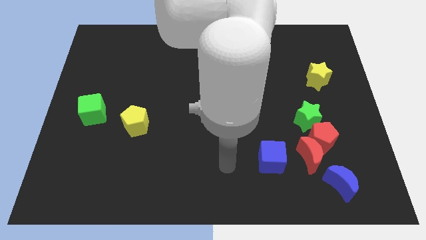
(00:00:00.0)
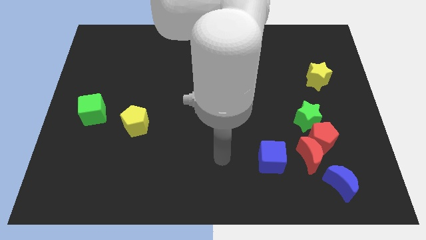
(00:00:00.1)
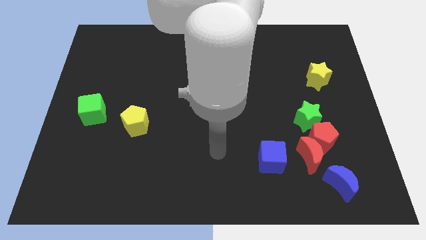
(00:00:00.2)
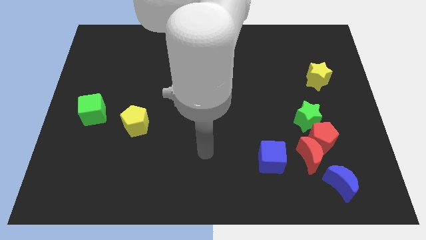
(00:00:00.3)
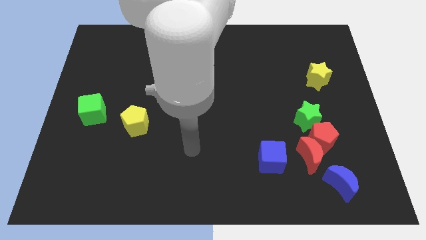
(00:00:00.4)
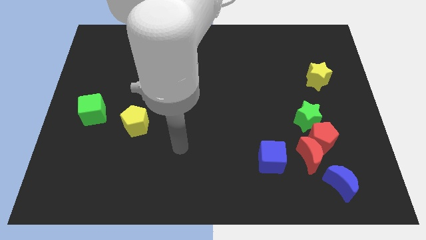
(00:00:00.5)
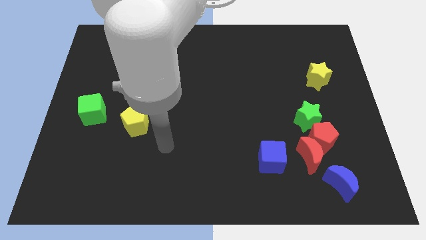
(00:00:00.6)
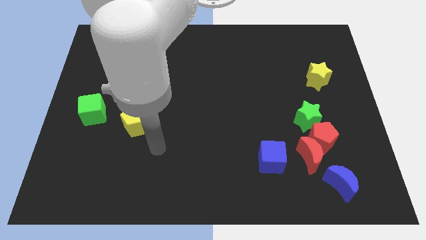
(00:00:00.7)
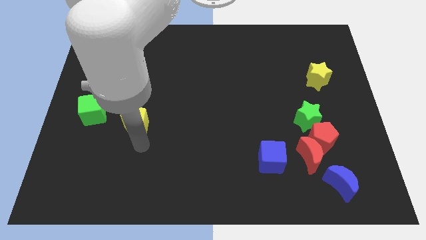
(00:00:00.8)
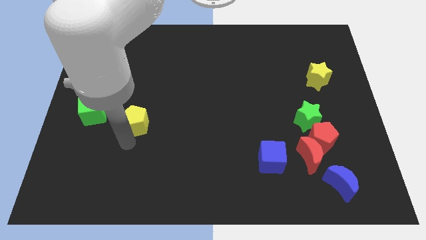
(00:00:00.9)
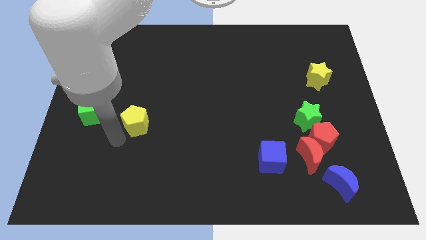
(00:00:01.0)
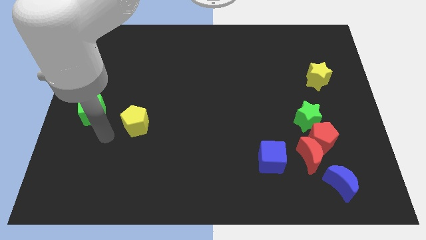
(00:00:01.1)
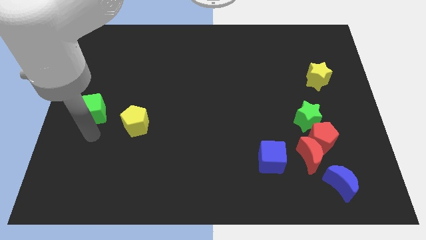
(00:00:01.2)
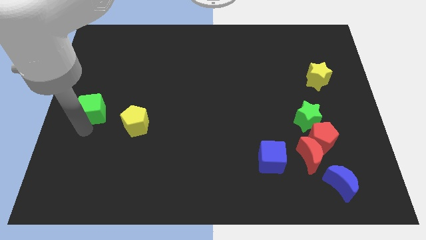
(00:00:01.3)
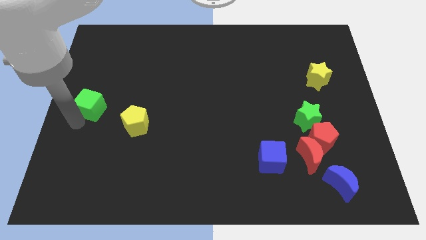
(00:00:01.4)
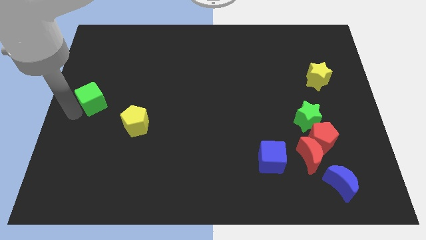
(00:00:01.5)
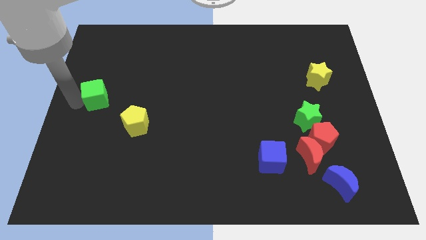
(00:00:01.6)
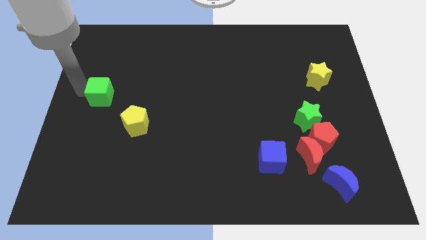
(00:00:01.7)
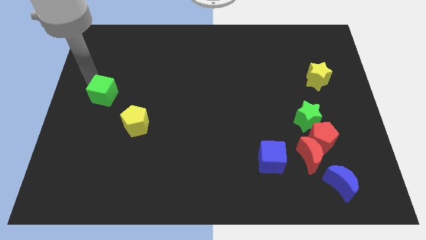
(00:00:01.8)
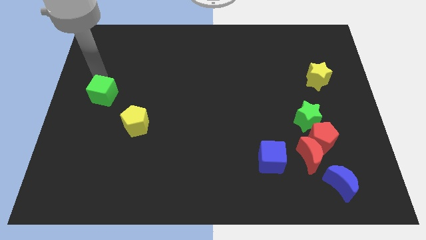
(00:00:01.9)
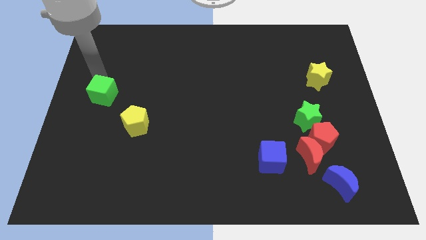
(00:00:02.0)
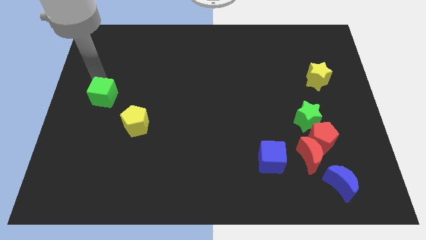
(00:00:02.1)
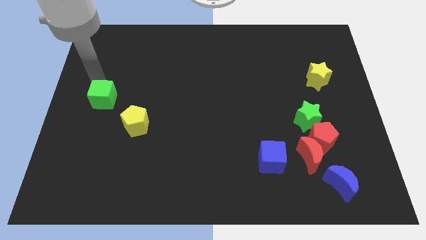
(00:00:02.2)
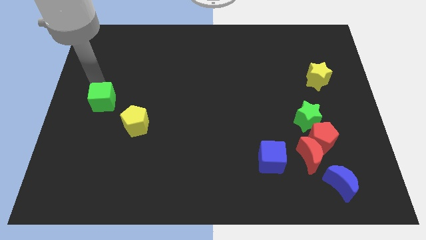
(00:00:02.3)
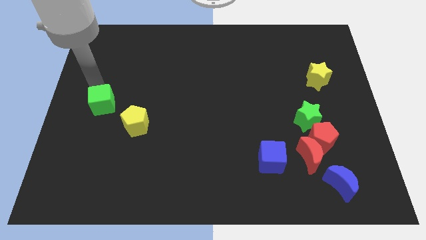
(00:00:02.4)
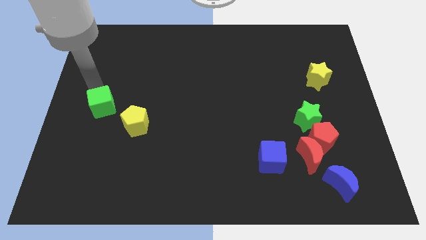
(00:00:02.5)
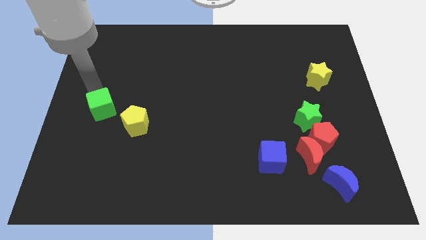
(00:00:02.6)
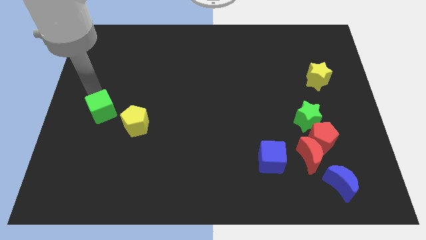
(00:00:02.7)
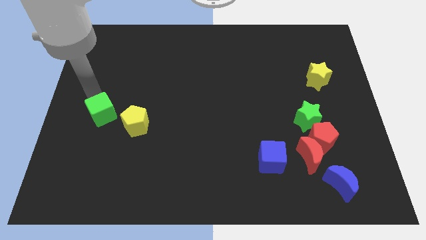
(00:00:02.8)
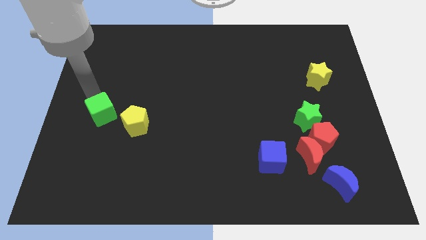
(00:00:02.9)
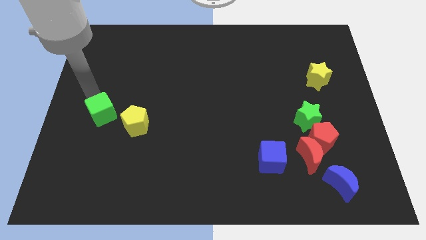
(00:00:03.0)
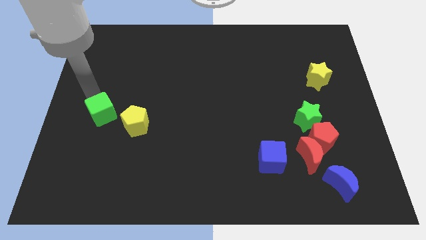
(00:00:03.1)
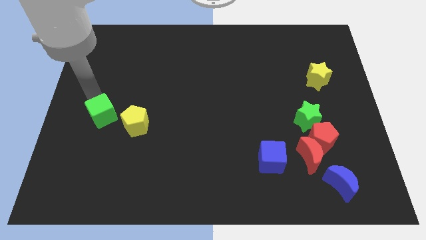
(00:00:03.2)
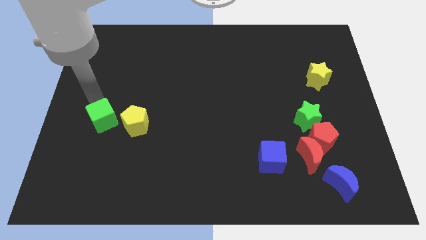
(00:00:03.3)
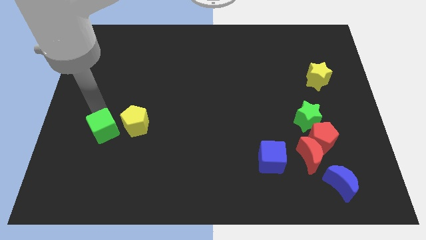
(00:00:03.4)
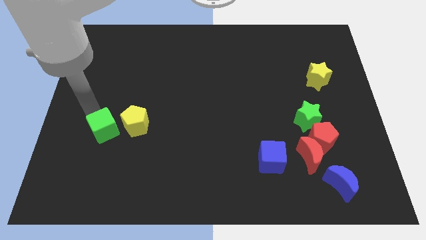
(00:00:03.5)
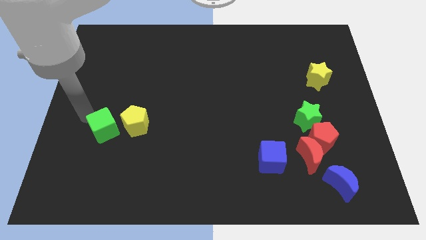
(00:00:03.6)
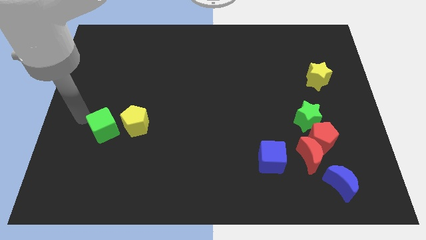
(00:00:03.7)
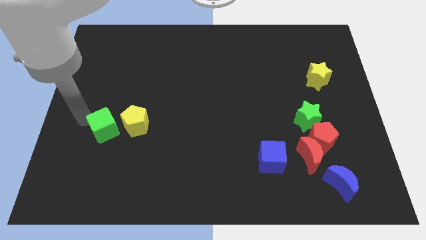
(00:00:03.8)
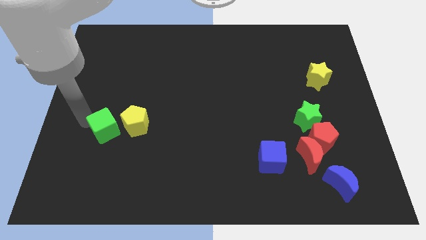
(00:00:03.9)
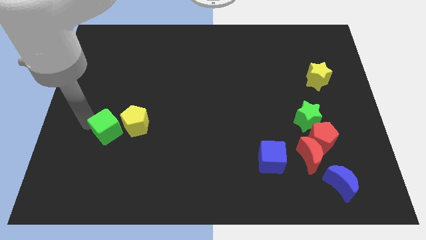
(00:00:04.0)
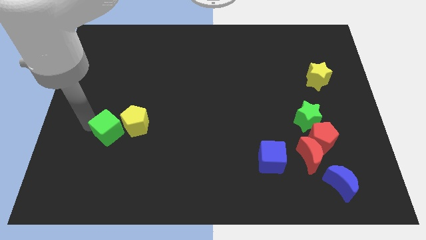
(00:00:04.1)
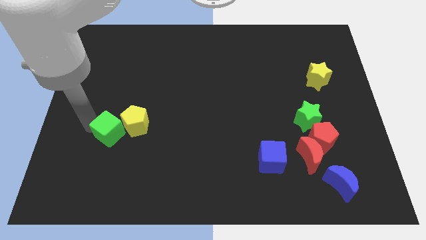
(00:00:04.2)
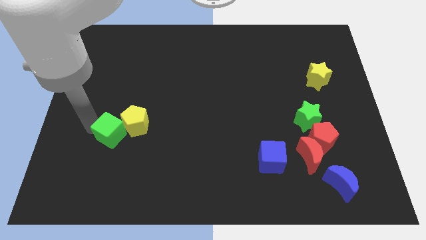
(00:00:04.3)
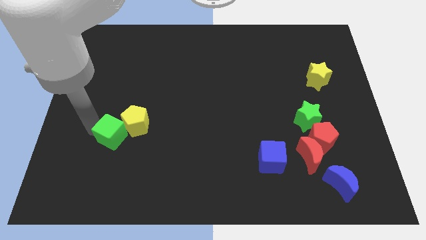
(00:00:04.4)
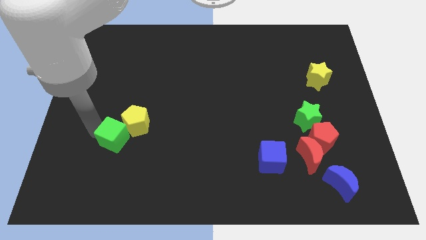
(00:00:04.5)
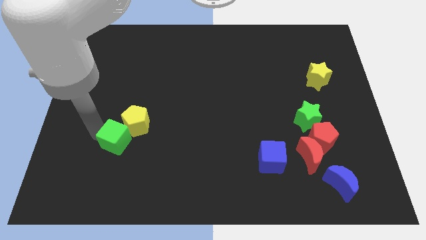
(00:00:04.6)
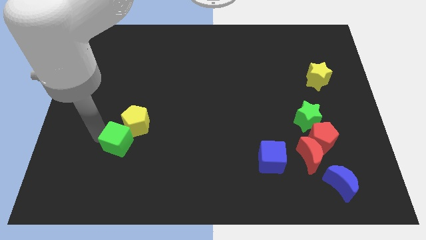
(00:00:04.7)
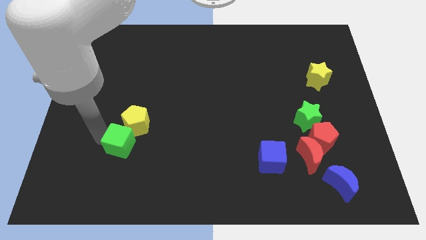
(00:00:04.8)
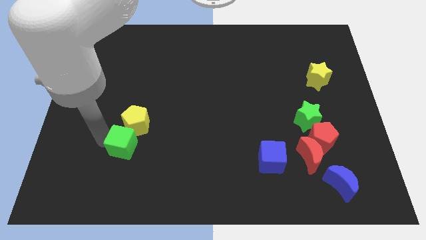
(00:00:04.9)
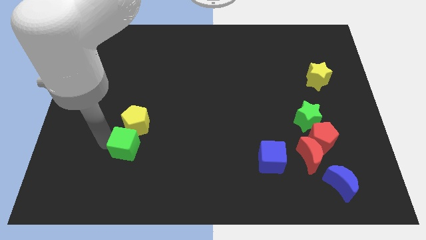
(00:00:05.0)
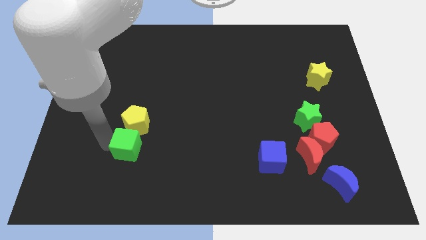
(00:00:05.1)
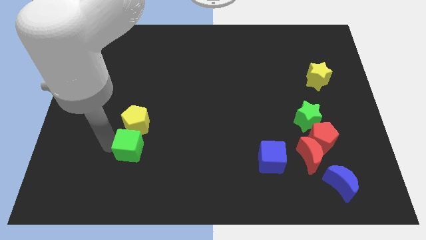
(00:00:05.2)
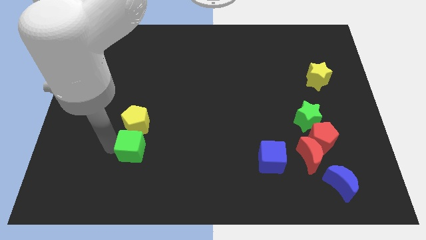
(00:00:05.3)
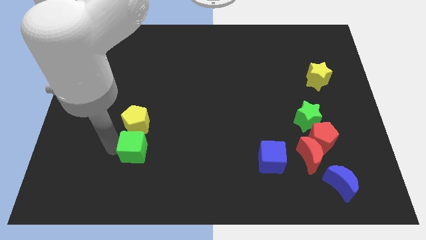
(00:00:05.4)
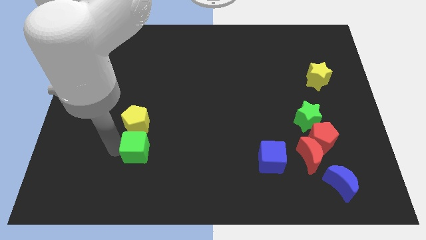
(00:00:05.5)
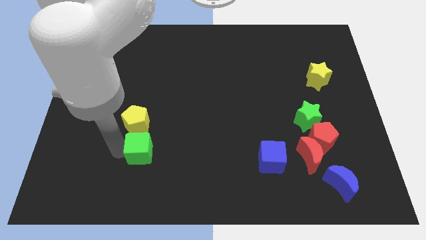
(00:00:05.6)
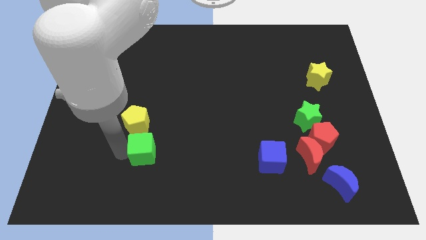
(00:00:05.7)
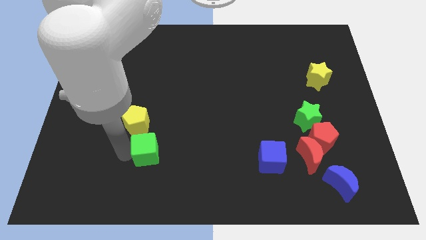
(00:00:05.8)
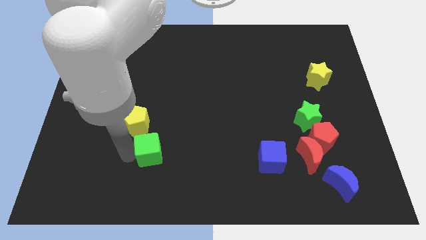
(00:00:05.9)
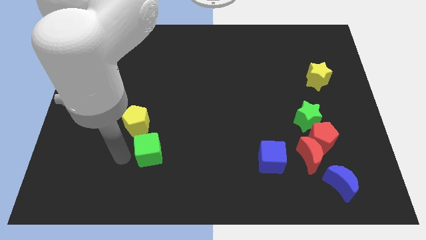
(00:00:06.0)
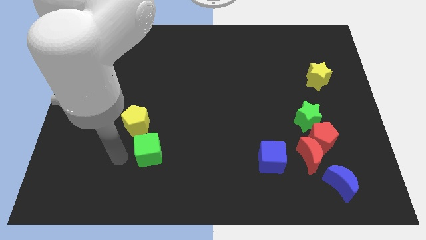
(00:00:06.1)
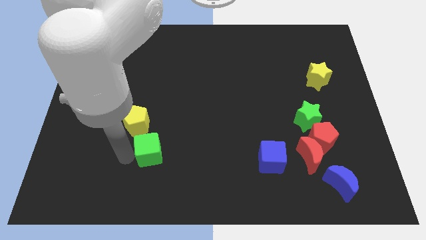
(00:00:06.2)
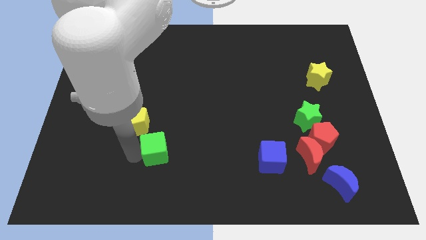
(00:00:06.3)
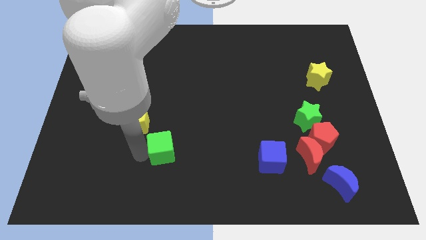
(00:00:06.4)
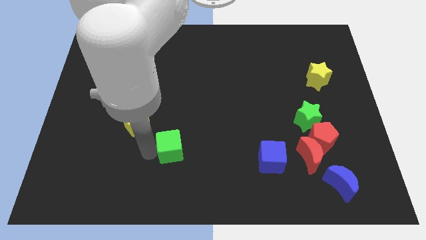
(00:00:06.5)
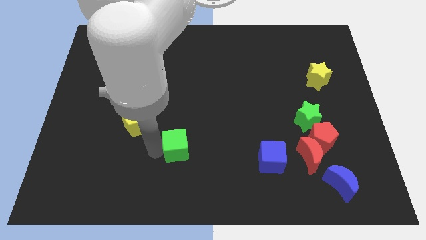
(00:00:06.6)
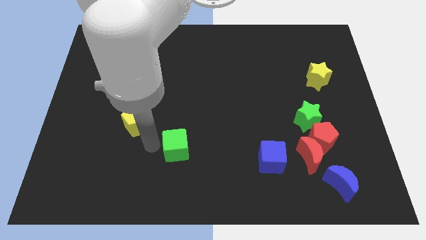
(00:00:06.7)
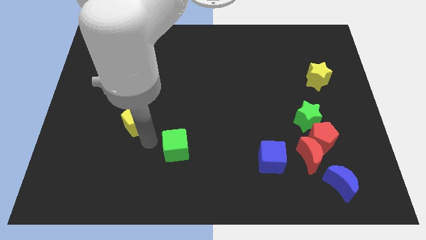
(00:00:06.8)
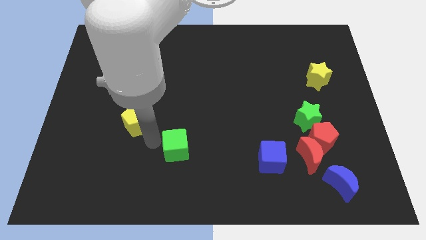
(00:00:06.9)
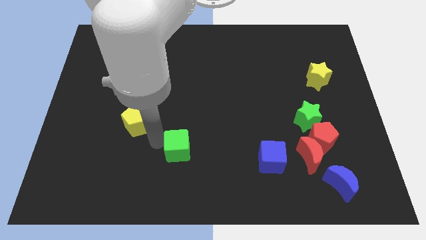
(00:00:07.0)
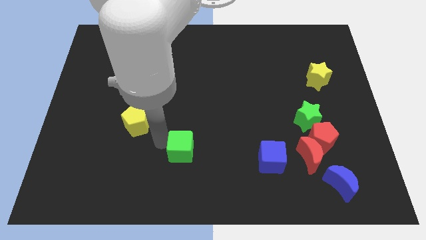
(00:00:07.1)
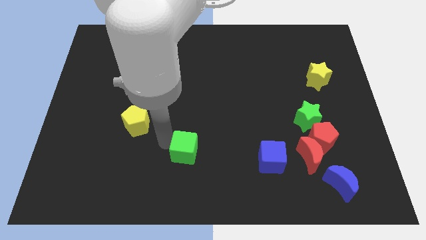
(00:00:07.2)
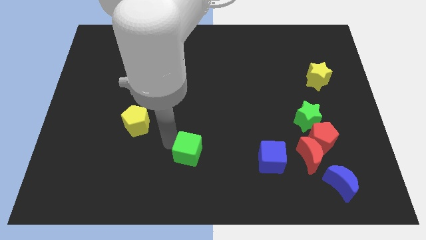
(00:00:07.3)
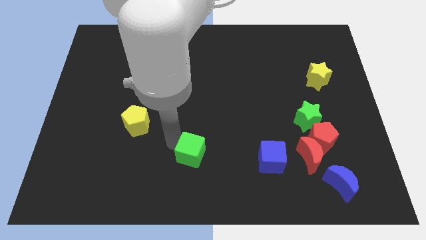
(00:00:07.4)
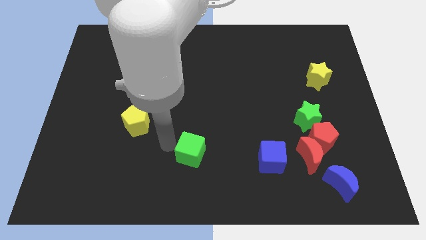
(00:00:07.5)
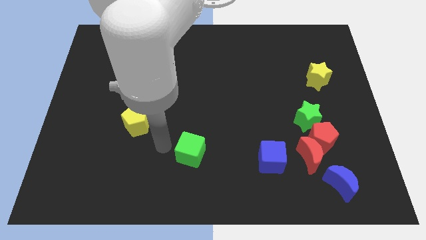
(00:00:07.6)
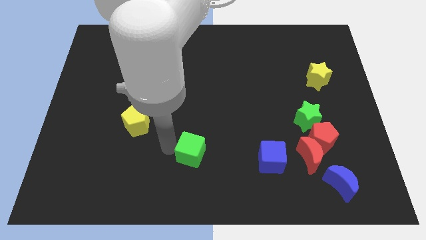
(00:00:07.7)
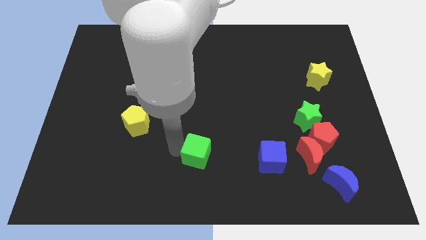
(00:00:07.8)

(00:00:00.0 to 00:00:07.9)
slide the green cube left of the blue cube
